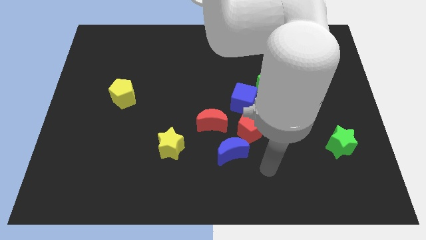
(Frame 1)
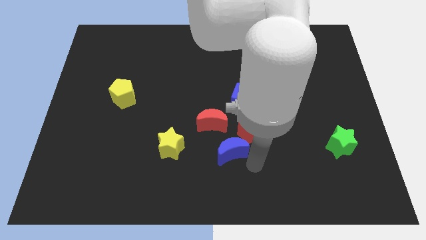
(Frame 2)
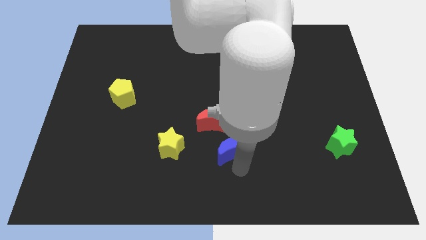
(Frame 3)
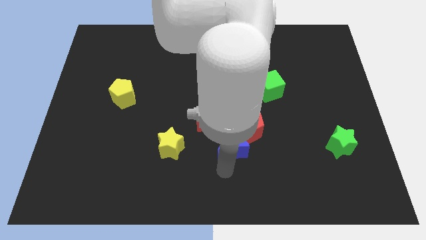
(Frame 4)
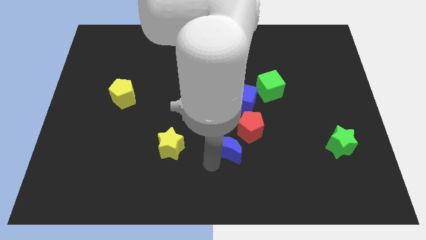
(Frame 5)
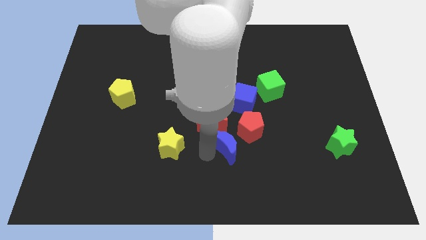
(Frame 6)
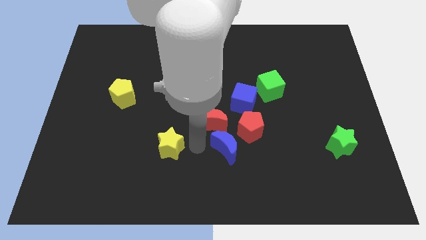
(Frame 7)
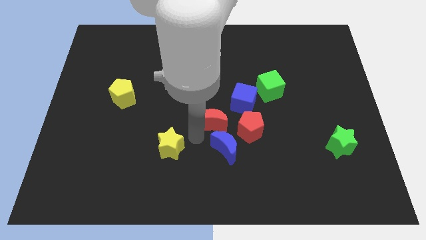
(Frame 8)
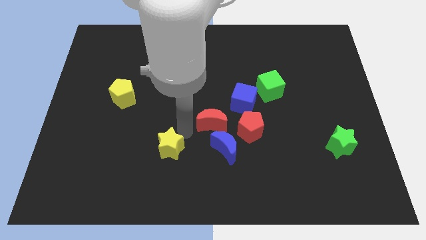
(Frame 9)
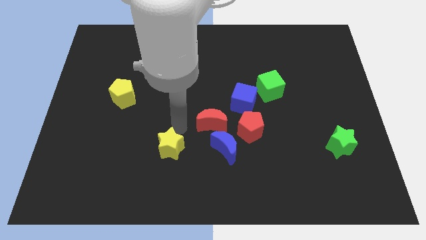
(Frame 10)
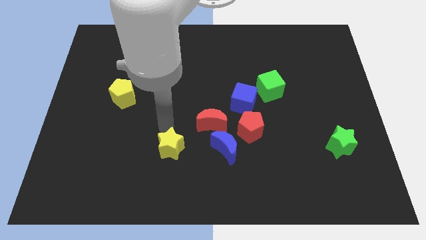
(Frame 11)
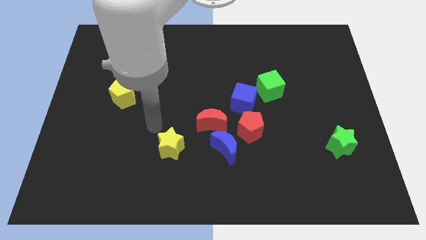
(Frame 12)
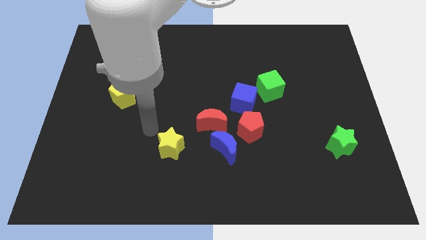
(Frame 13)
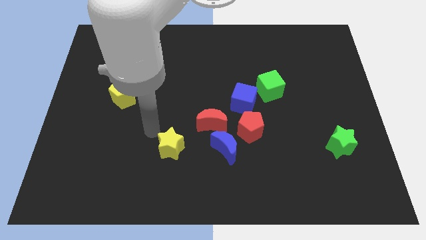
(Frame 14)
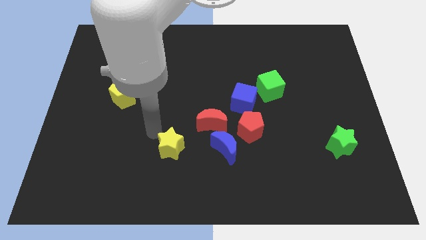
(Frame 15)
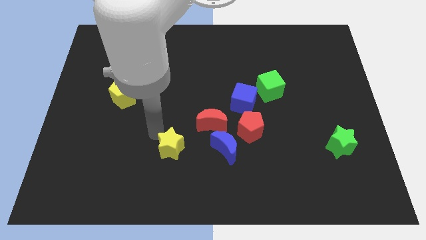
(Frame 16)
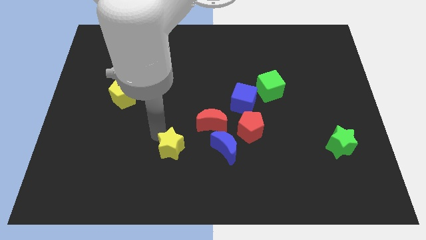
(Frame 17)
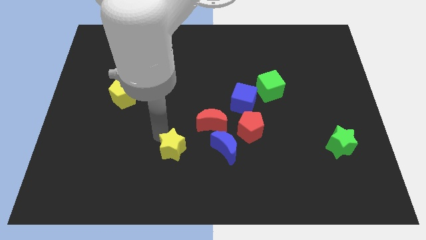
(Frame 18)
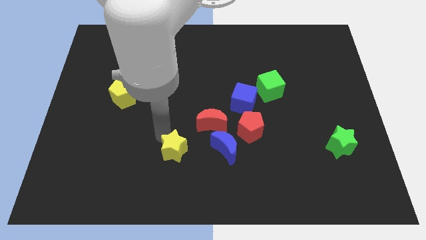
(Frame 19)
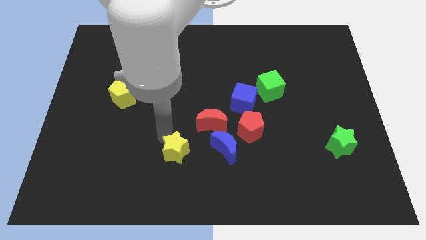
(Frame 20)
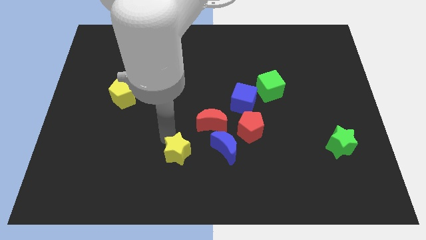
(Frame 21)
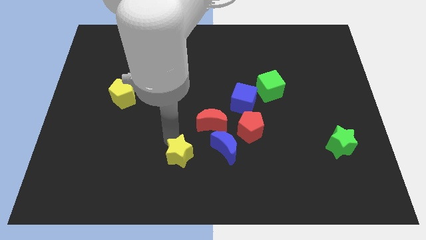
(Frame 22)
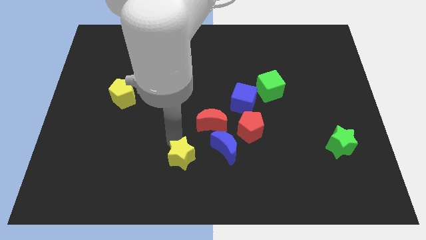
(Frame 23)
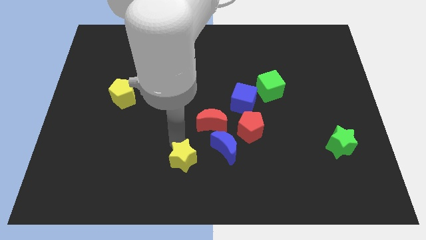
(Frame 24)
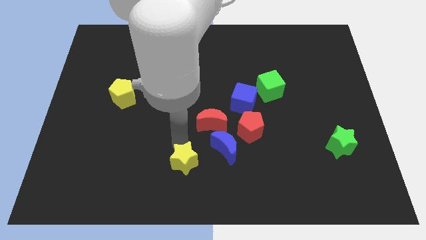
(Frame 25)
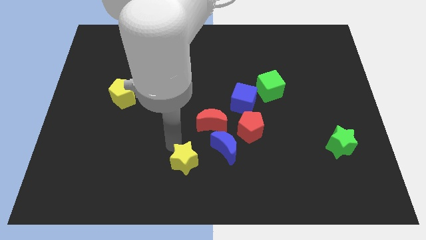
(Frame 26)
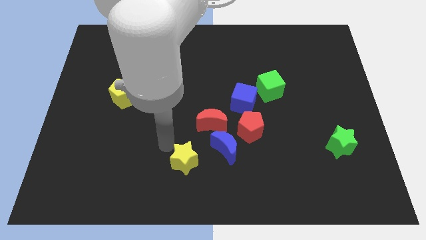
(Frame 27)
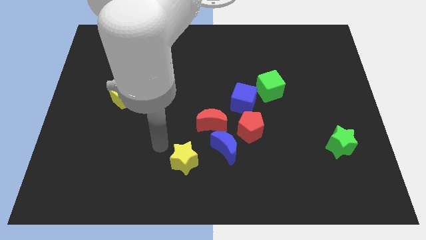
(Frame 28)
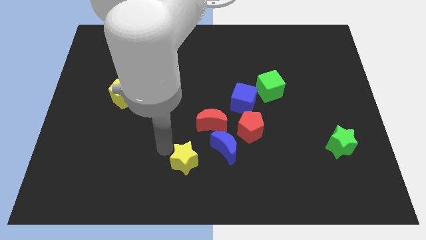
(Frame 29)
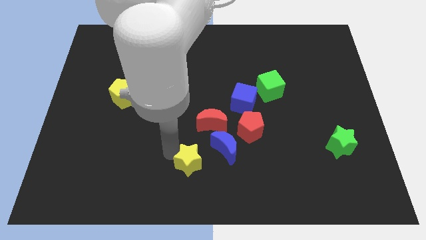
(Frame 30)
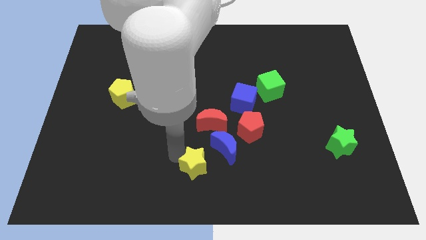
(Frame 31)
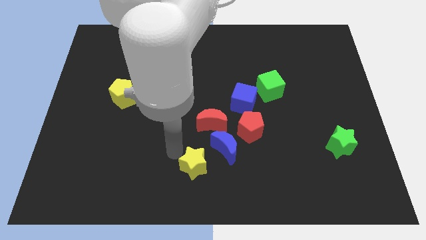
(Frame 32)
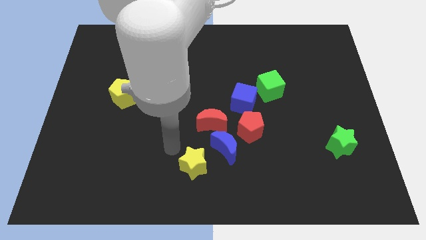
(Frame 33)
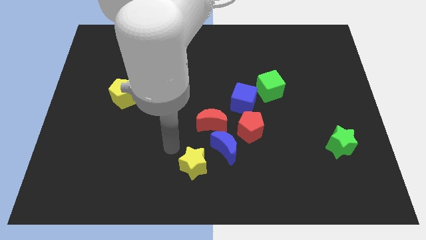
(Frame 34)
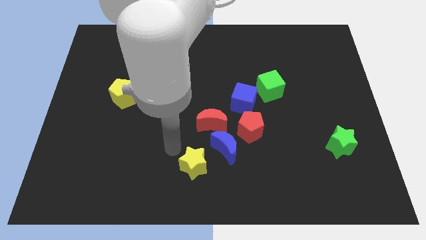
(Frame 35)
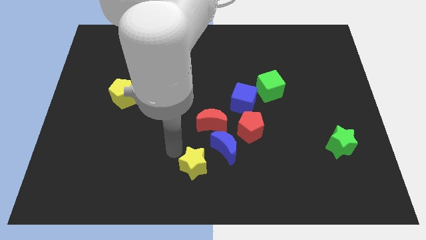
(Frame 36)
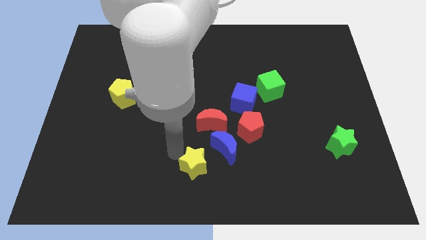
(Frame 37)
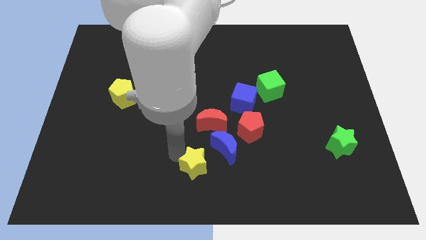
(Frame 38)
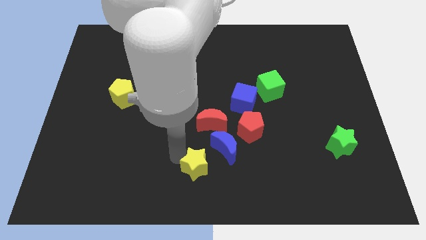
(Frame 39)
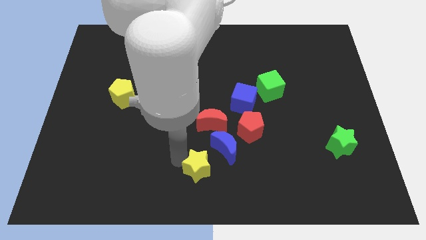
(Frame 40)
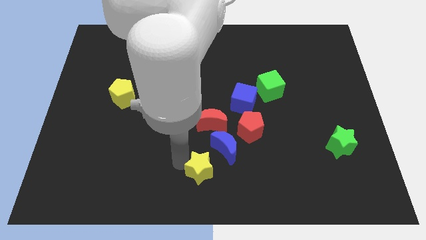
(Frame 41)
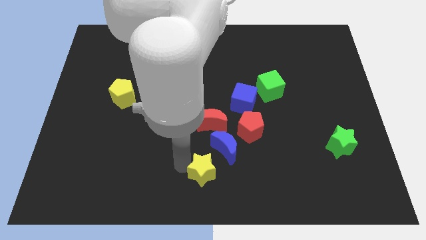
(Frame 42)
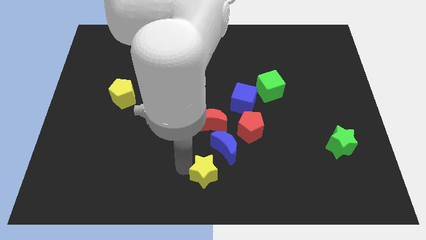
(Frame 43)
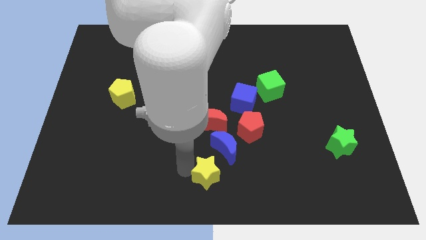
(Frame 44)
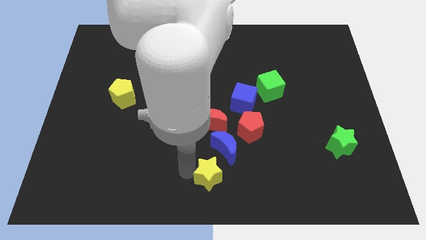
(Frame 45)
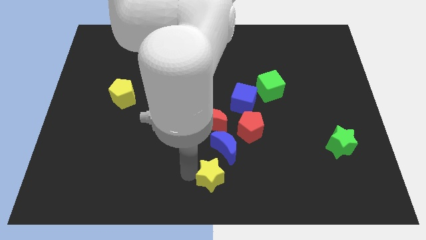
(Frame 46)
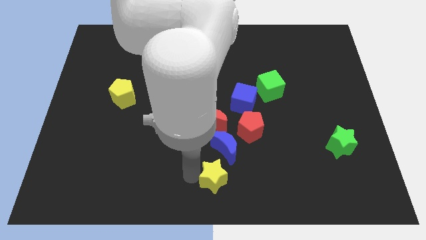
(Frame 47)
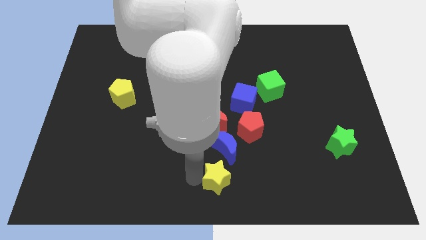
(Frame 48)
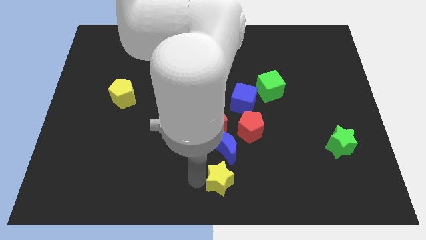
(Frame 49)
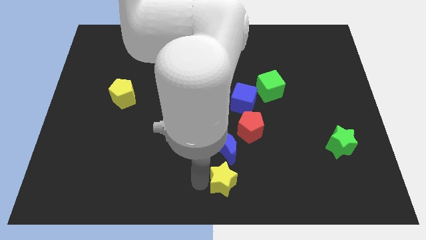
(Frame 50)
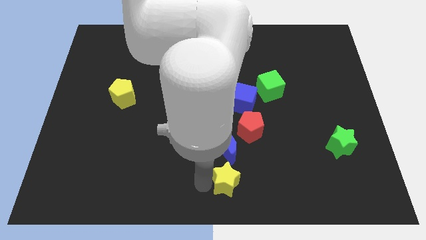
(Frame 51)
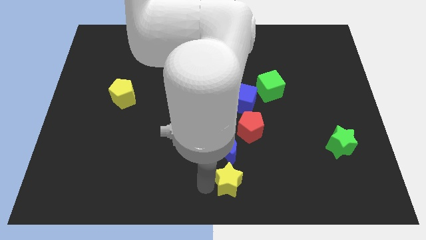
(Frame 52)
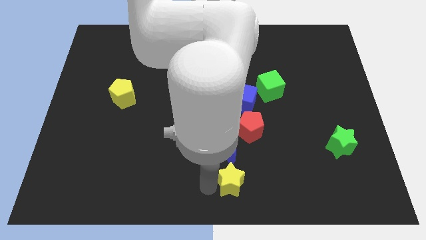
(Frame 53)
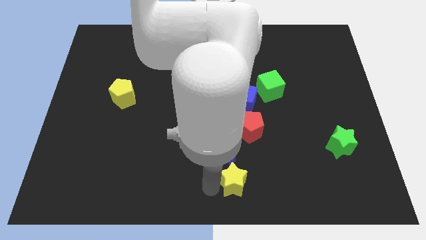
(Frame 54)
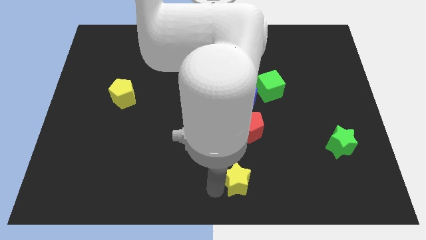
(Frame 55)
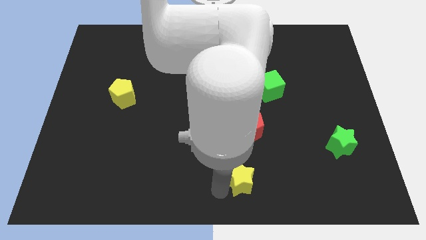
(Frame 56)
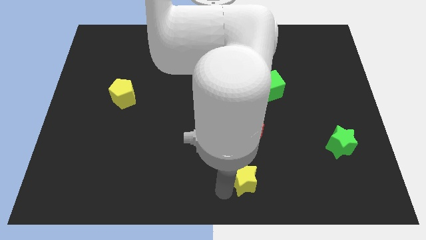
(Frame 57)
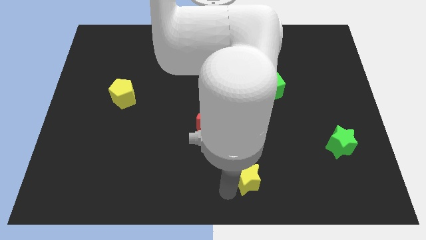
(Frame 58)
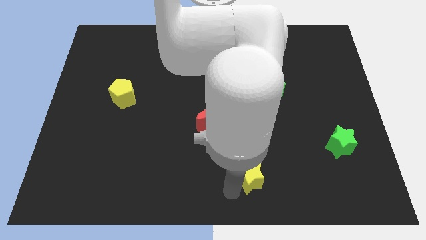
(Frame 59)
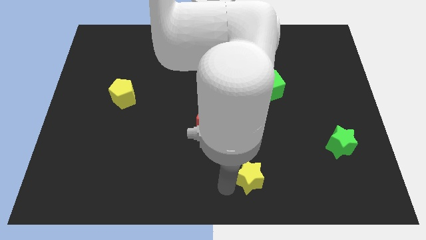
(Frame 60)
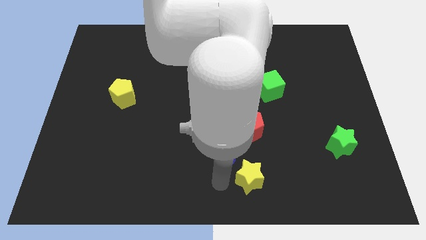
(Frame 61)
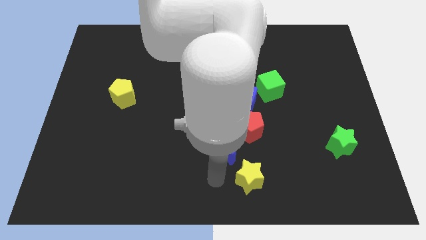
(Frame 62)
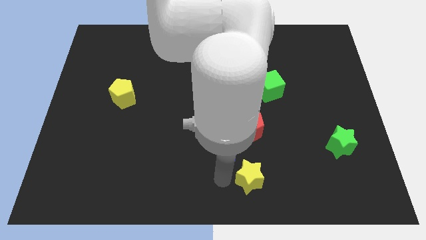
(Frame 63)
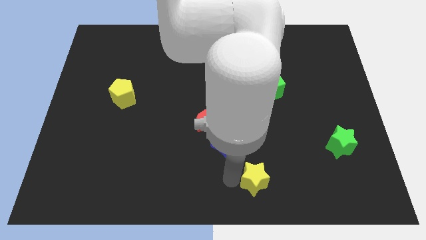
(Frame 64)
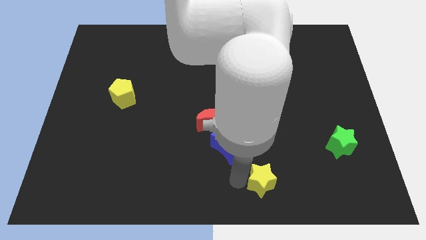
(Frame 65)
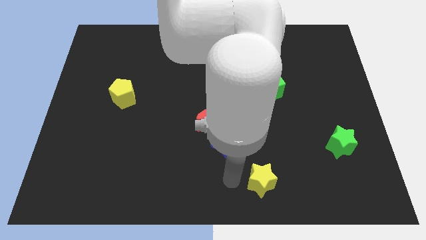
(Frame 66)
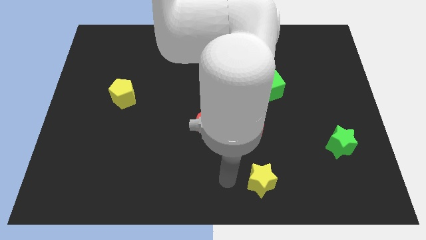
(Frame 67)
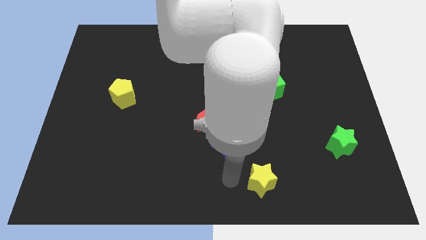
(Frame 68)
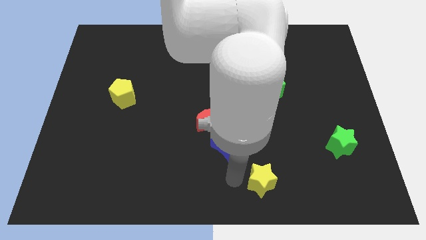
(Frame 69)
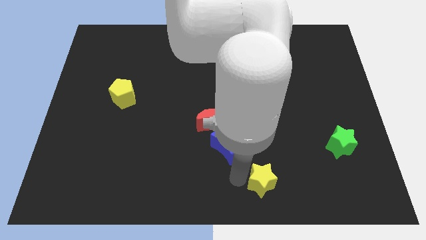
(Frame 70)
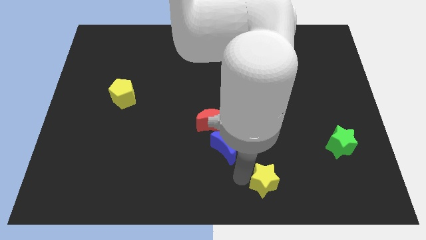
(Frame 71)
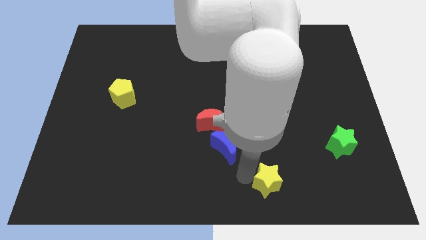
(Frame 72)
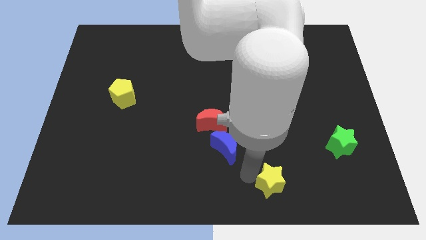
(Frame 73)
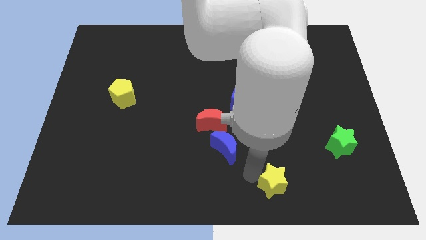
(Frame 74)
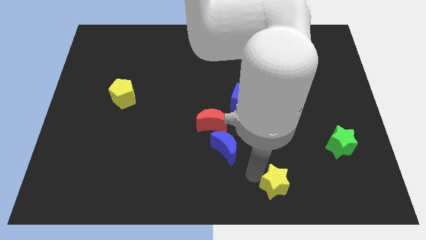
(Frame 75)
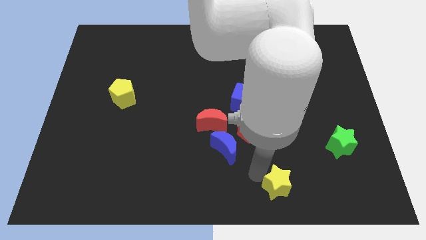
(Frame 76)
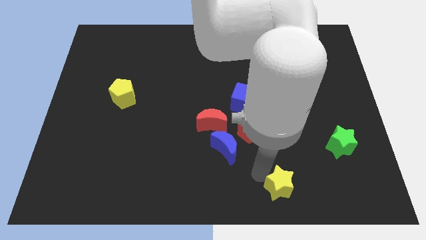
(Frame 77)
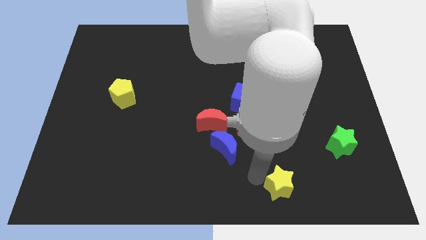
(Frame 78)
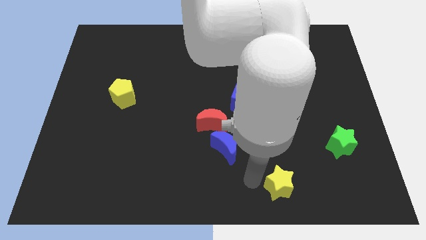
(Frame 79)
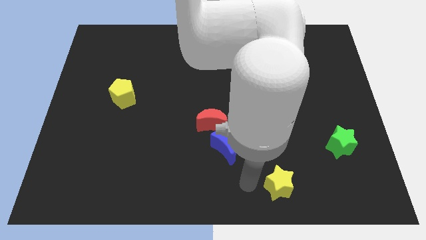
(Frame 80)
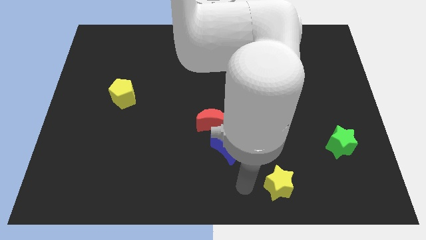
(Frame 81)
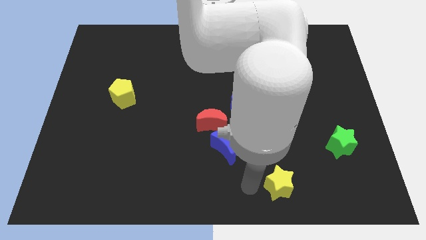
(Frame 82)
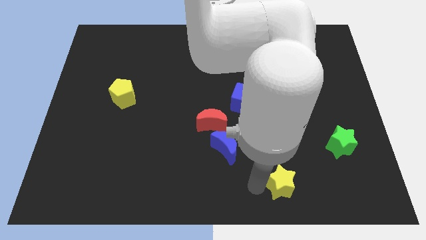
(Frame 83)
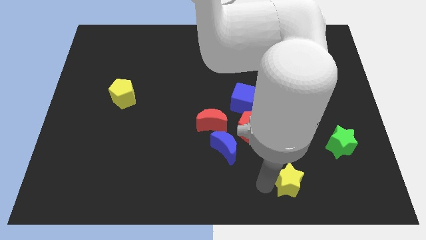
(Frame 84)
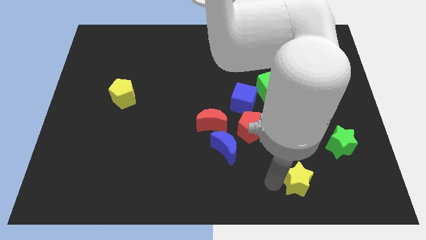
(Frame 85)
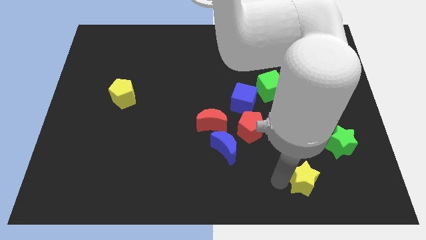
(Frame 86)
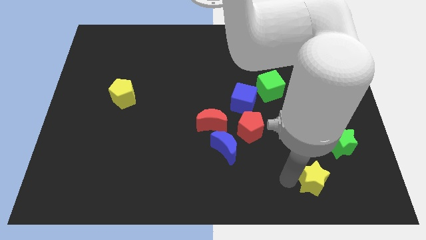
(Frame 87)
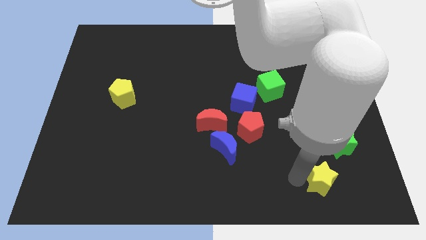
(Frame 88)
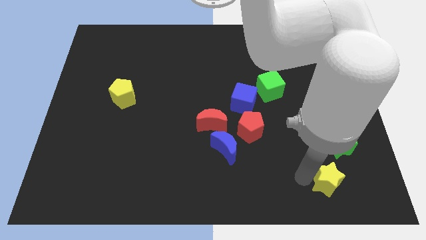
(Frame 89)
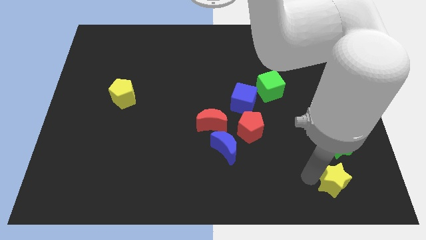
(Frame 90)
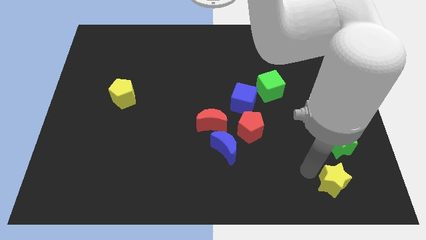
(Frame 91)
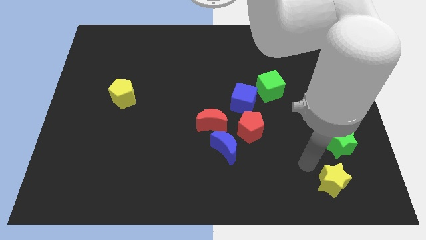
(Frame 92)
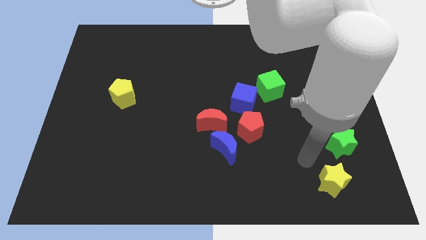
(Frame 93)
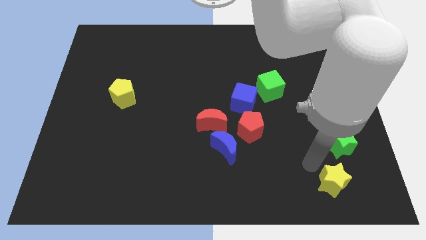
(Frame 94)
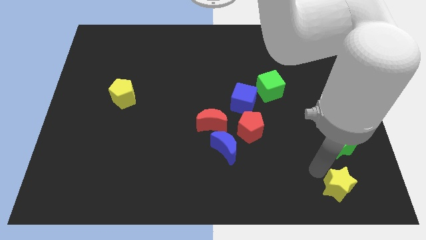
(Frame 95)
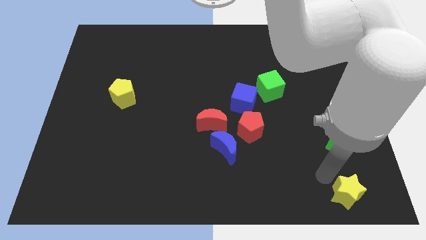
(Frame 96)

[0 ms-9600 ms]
slide the yellow star to the bottom right corner
